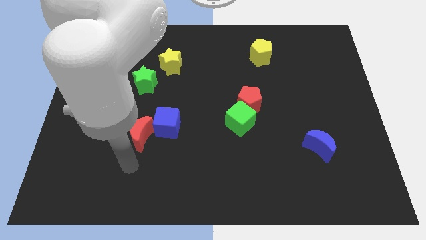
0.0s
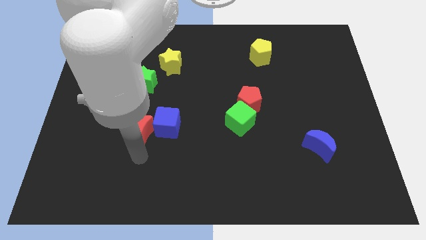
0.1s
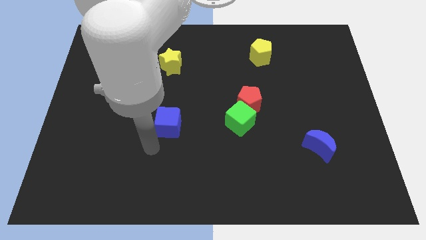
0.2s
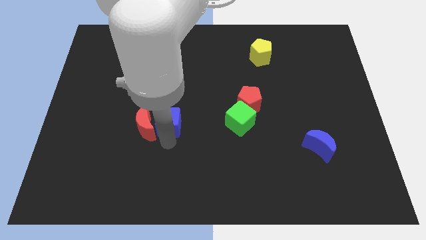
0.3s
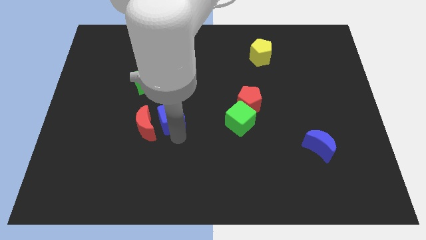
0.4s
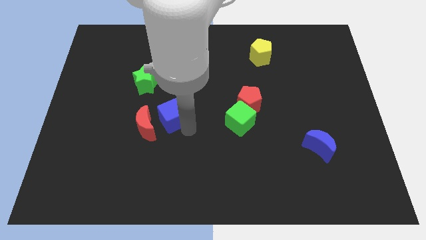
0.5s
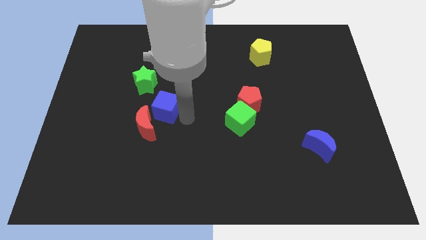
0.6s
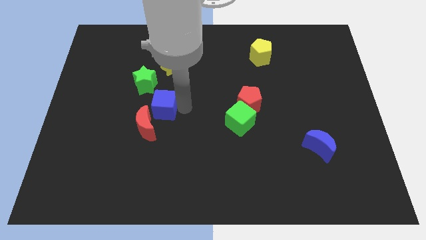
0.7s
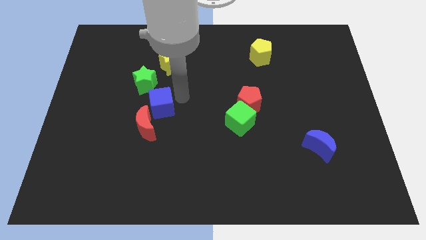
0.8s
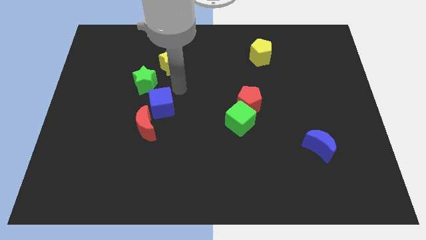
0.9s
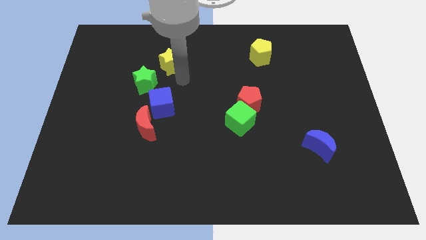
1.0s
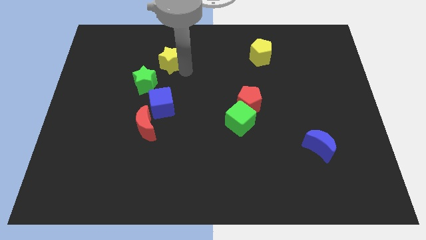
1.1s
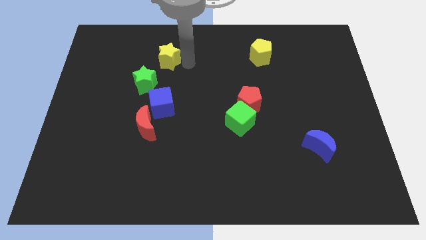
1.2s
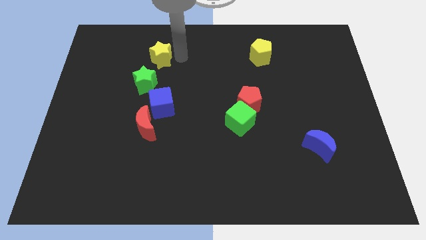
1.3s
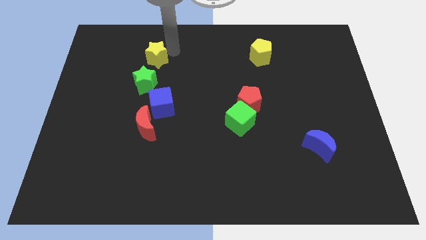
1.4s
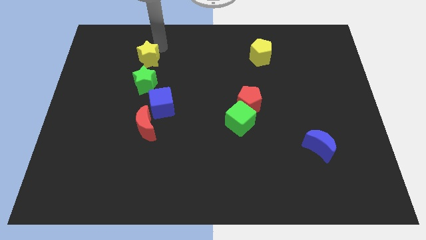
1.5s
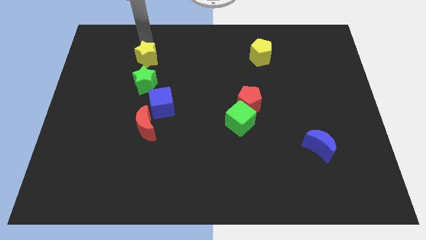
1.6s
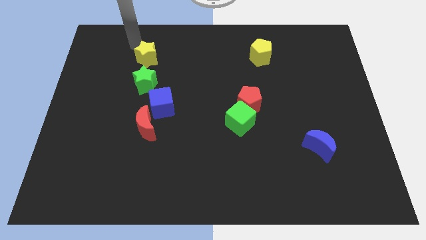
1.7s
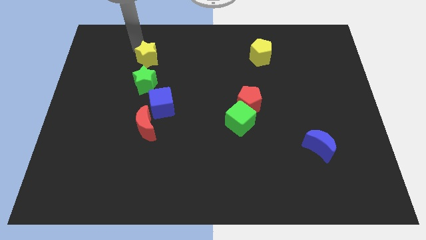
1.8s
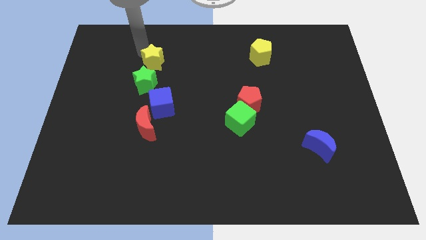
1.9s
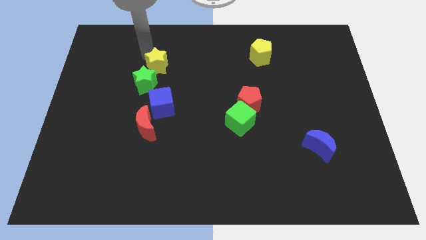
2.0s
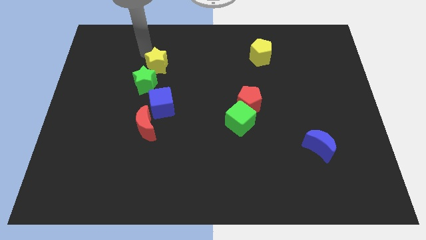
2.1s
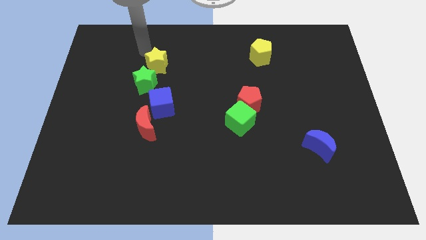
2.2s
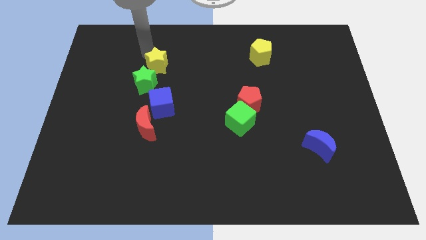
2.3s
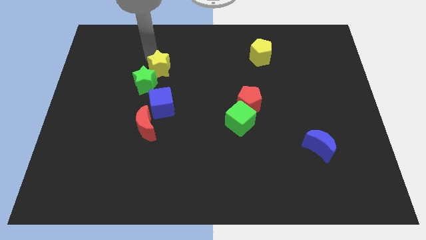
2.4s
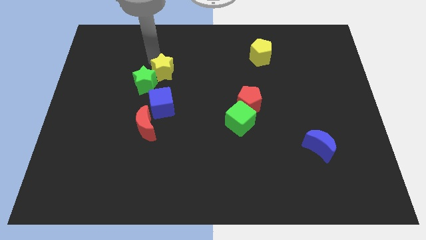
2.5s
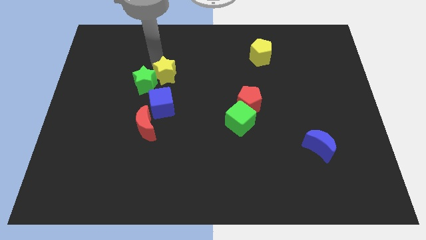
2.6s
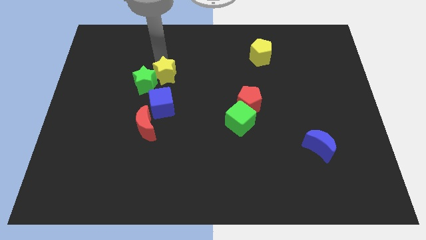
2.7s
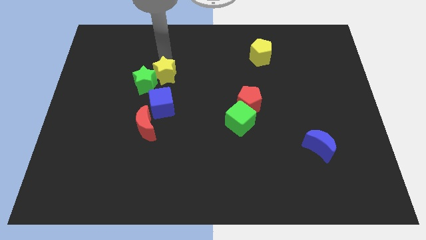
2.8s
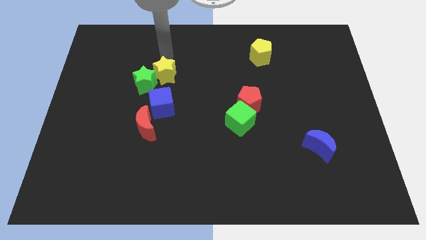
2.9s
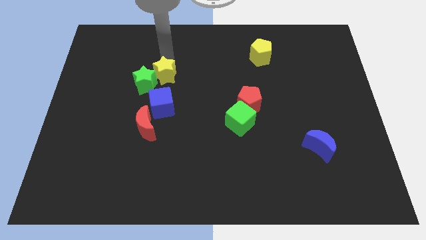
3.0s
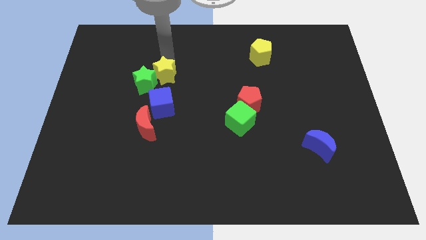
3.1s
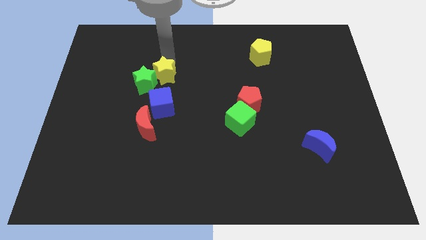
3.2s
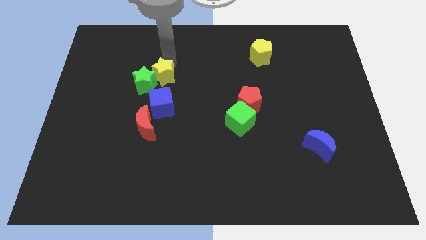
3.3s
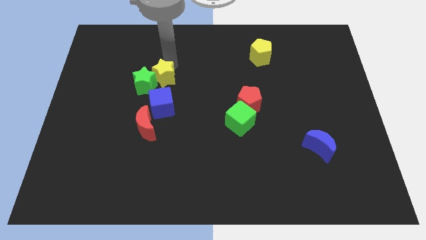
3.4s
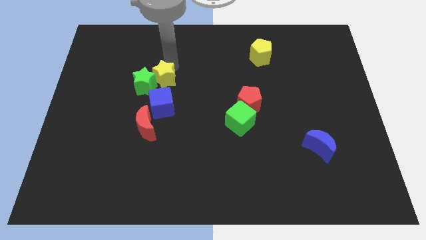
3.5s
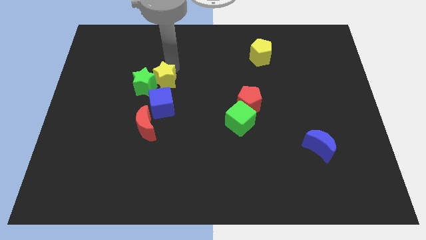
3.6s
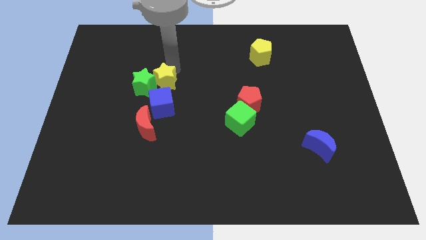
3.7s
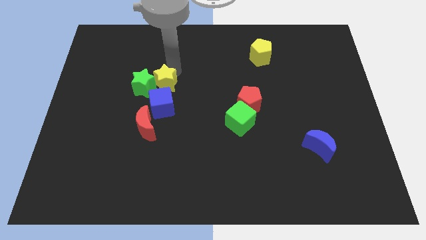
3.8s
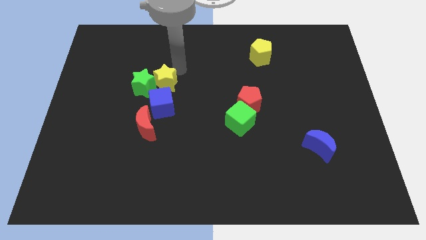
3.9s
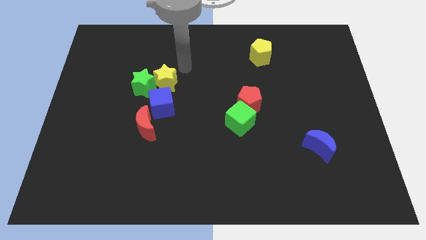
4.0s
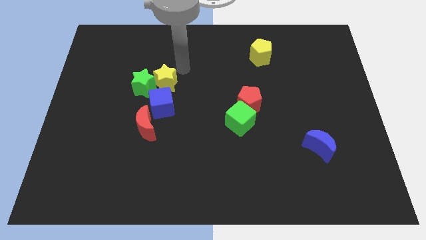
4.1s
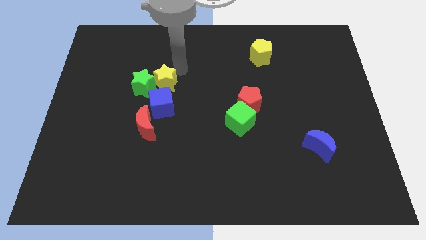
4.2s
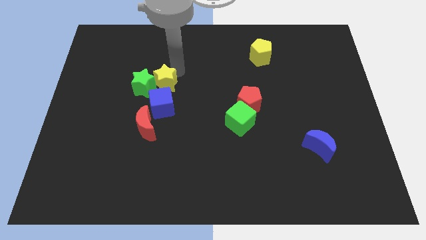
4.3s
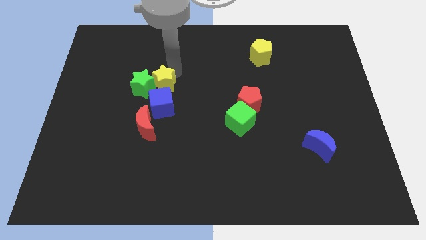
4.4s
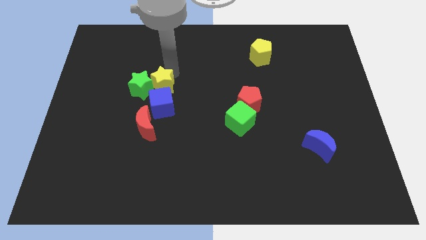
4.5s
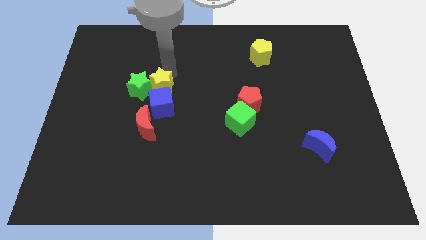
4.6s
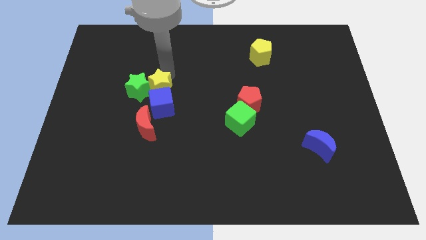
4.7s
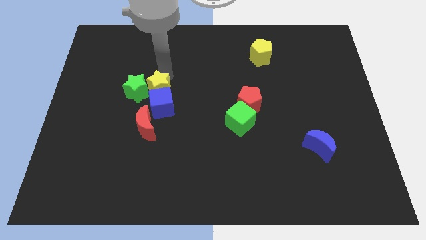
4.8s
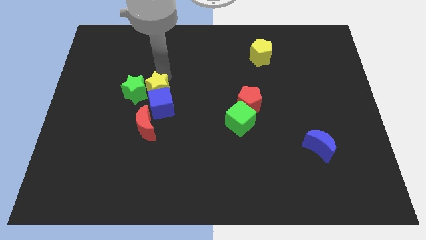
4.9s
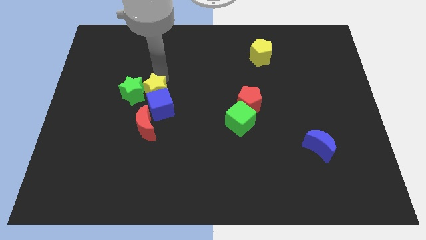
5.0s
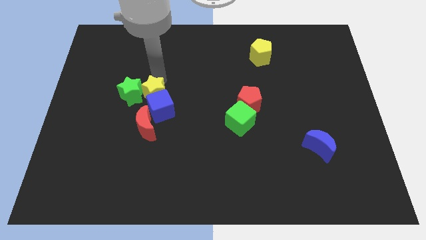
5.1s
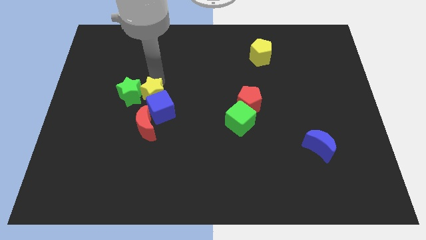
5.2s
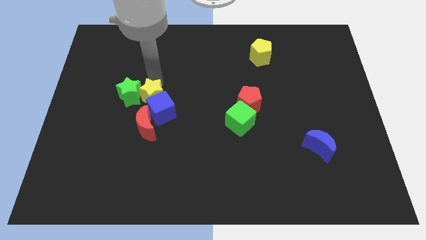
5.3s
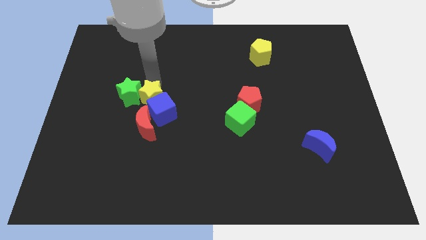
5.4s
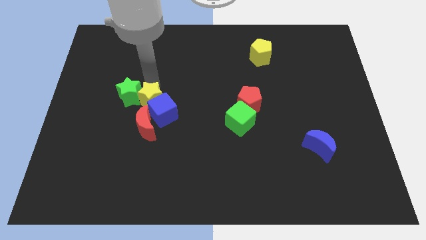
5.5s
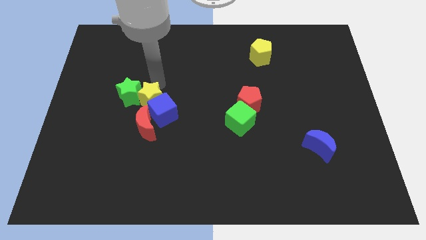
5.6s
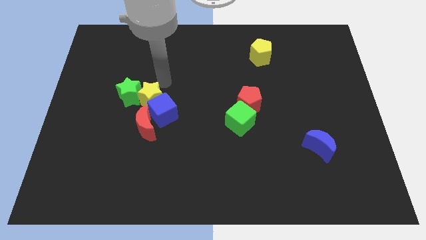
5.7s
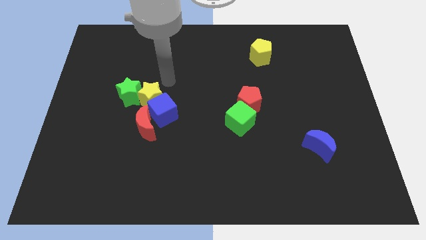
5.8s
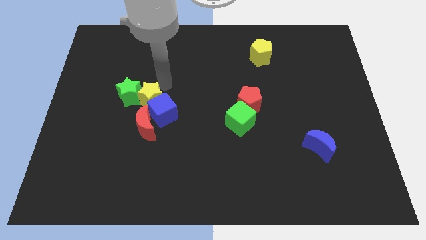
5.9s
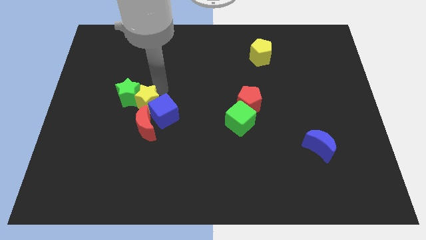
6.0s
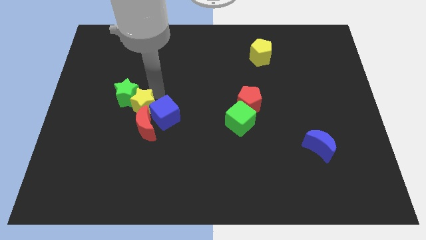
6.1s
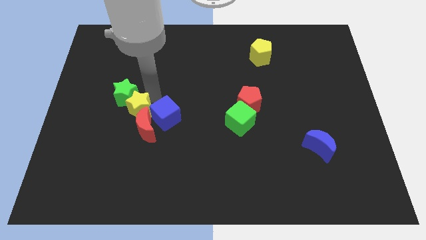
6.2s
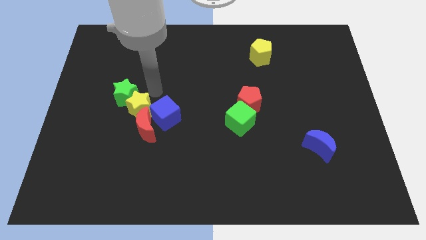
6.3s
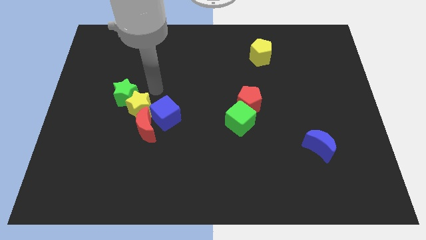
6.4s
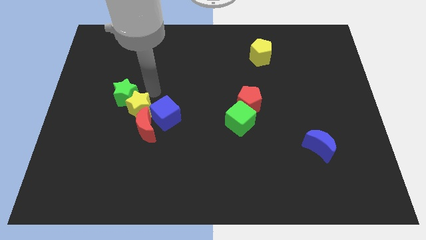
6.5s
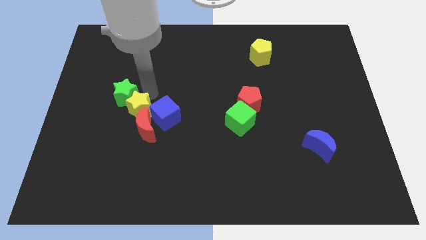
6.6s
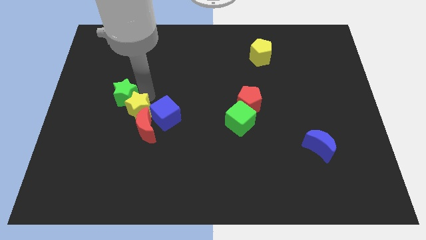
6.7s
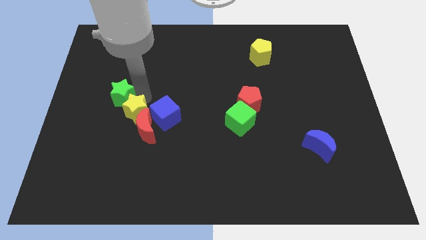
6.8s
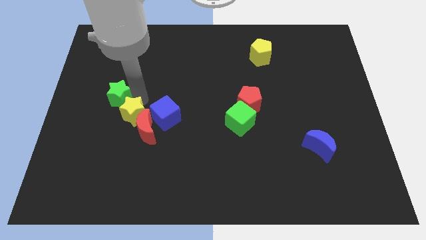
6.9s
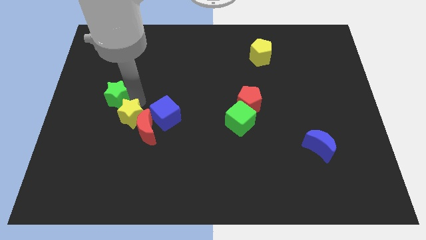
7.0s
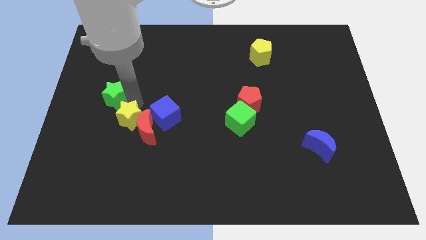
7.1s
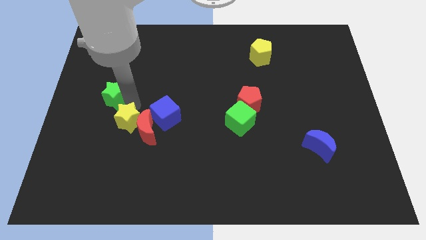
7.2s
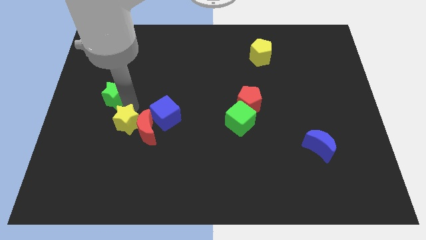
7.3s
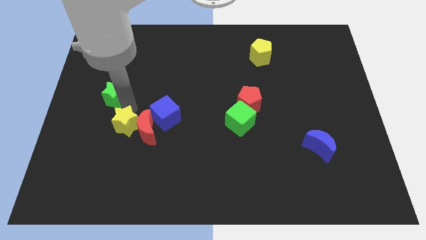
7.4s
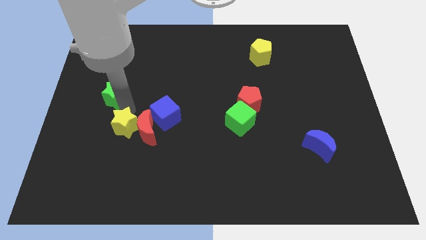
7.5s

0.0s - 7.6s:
move the yellow star to the bottom left side of the red moon
